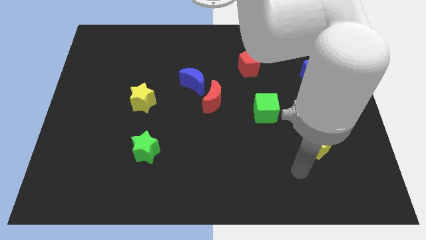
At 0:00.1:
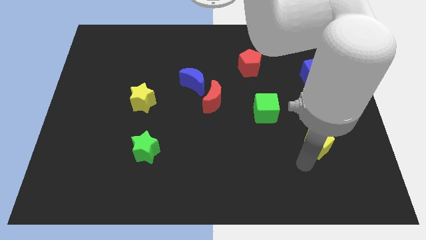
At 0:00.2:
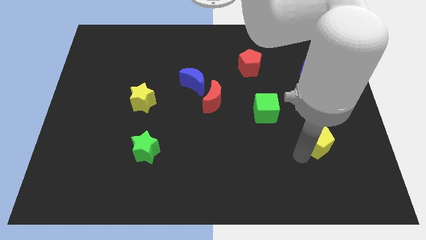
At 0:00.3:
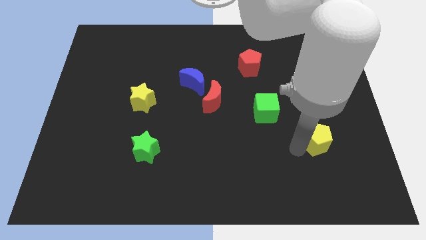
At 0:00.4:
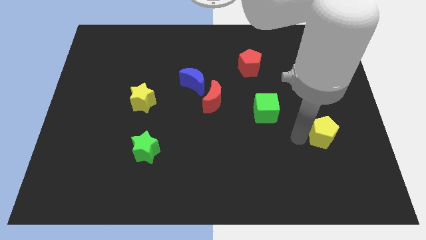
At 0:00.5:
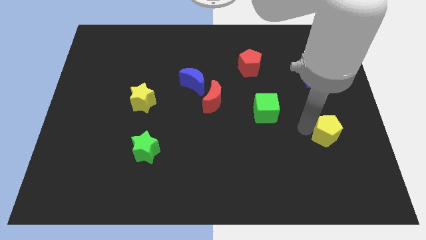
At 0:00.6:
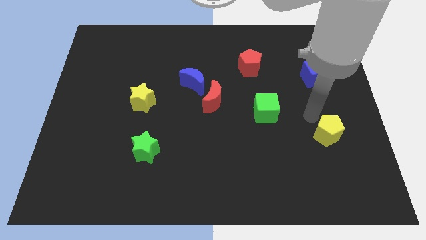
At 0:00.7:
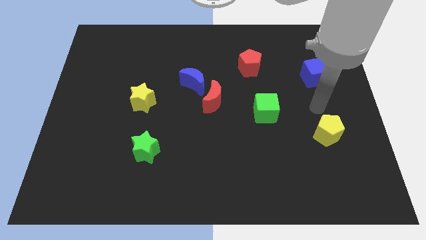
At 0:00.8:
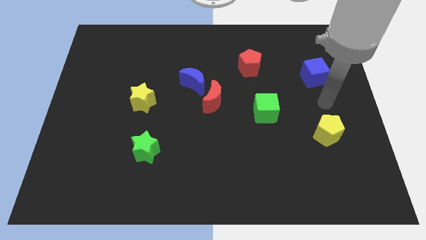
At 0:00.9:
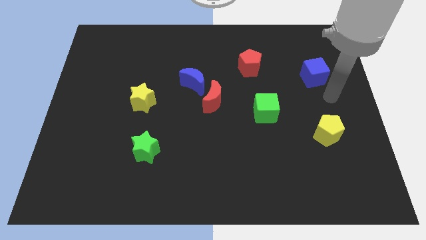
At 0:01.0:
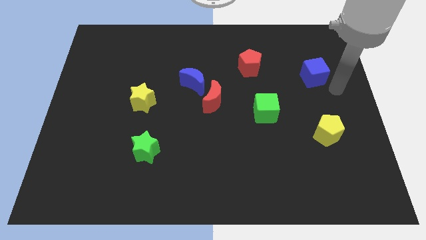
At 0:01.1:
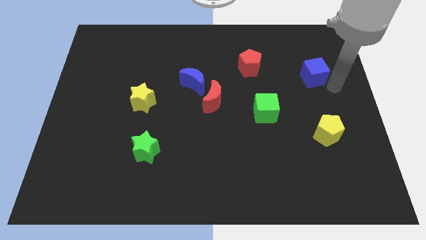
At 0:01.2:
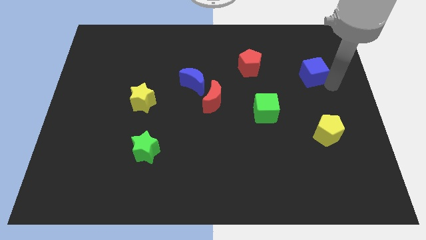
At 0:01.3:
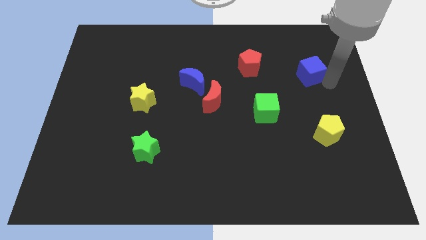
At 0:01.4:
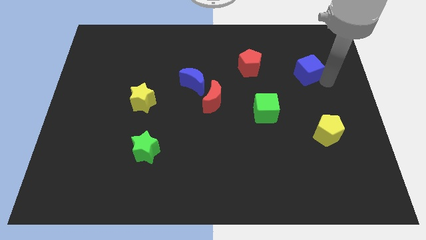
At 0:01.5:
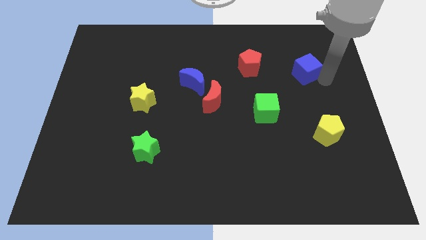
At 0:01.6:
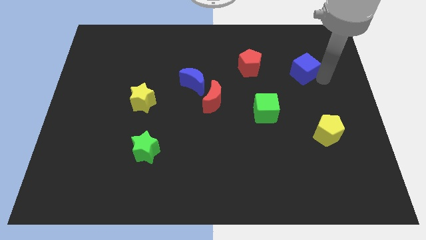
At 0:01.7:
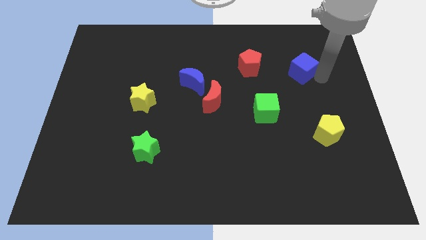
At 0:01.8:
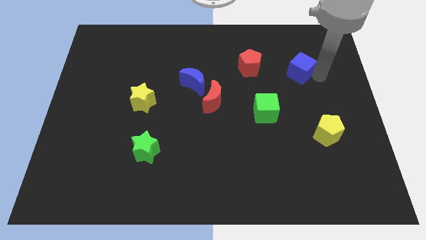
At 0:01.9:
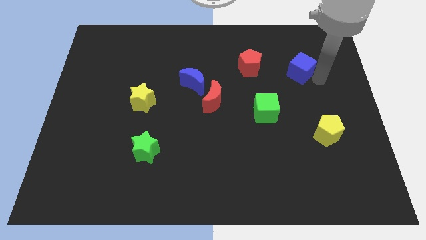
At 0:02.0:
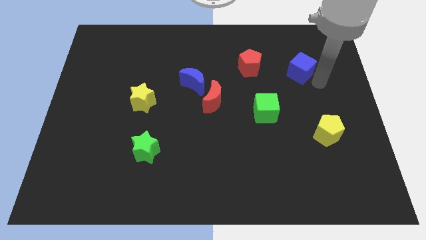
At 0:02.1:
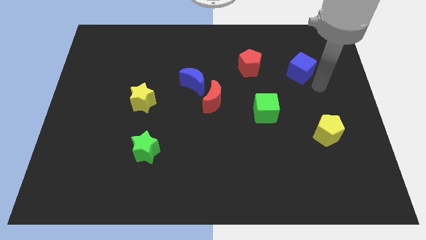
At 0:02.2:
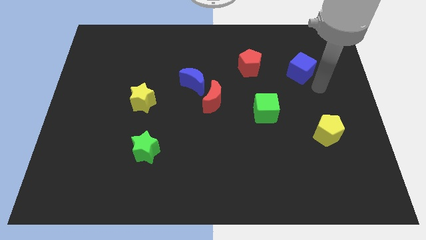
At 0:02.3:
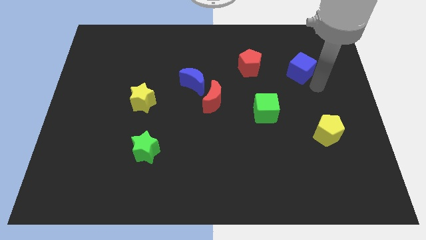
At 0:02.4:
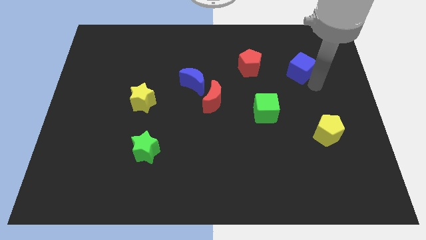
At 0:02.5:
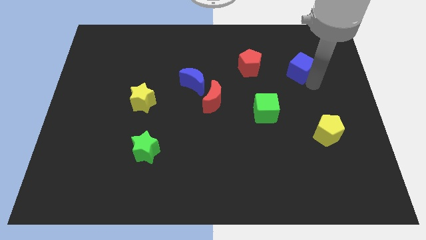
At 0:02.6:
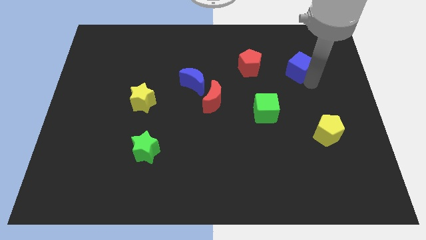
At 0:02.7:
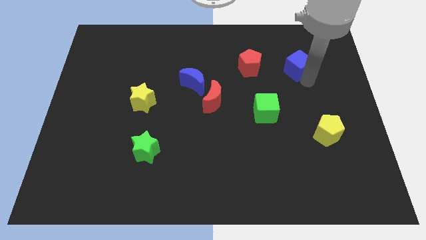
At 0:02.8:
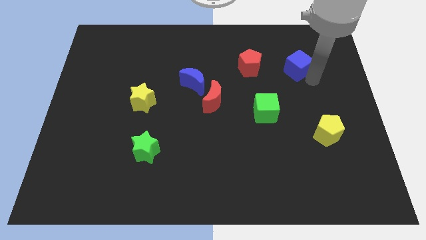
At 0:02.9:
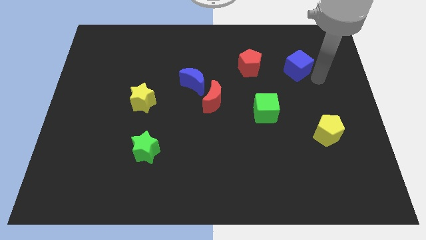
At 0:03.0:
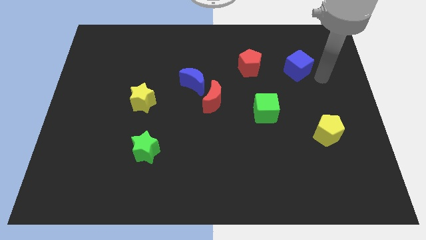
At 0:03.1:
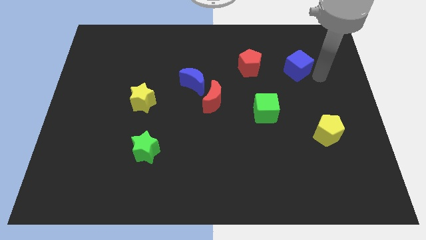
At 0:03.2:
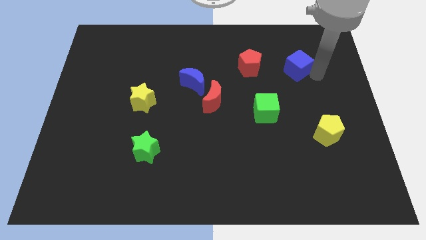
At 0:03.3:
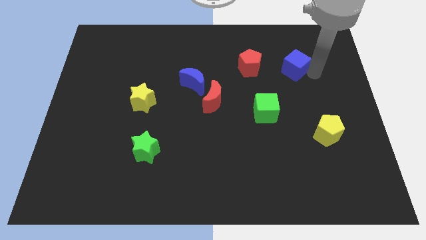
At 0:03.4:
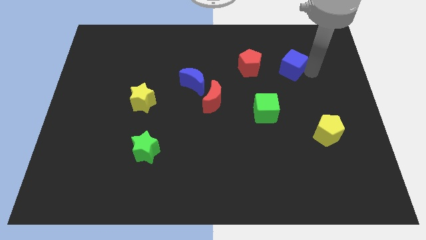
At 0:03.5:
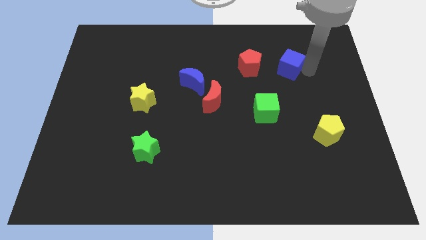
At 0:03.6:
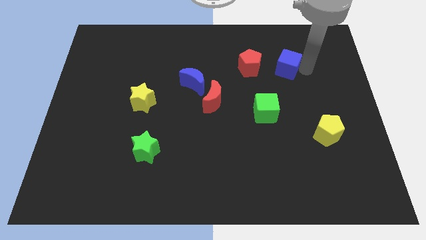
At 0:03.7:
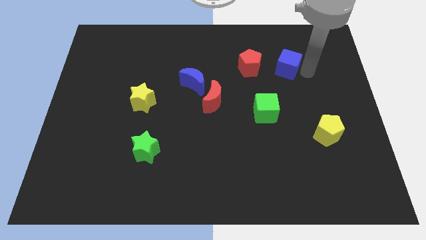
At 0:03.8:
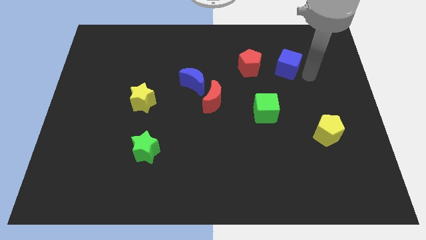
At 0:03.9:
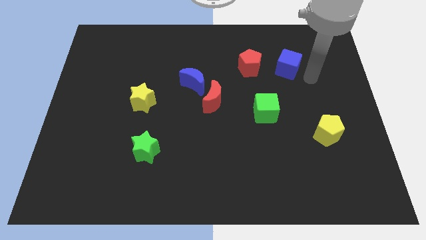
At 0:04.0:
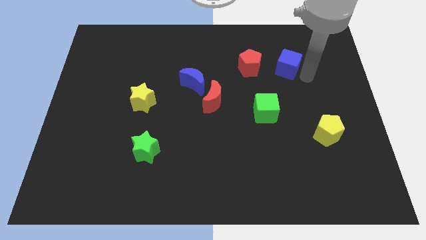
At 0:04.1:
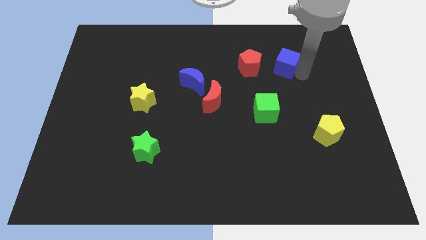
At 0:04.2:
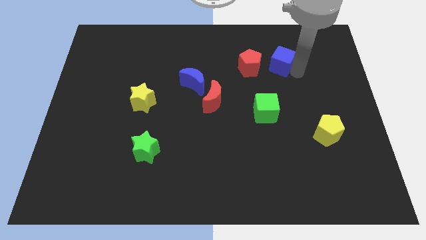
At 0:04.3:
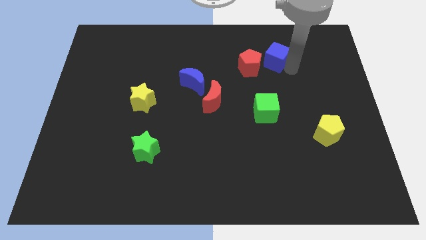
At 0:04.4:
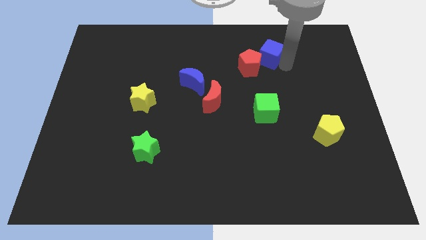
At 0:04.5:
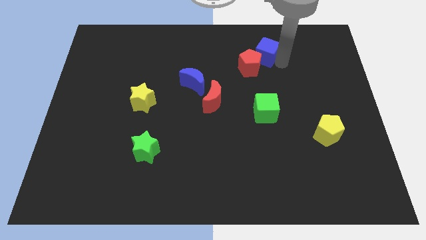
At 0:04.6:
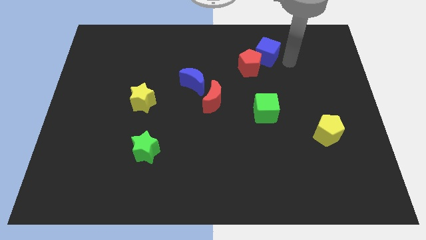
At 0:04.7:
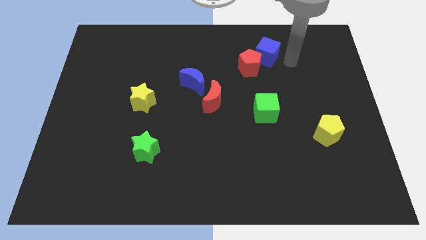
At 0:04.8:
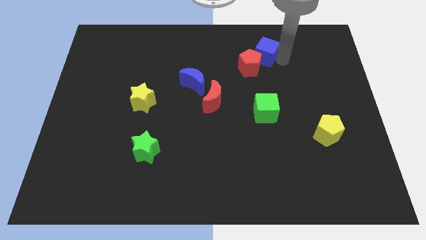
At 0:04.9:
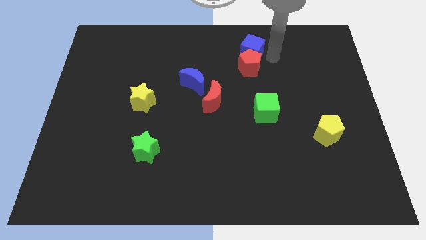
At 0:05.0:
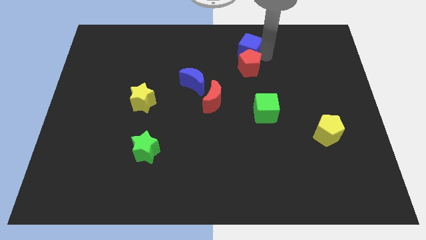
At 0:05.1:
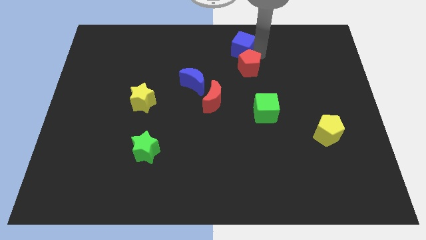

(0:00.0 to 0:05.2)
push the blue cube to the top
